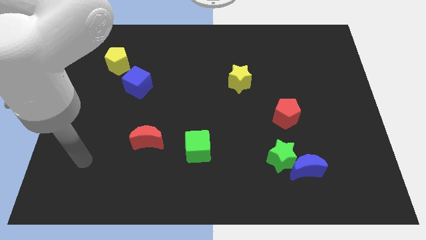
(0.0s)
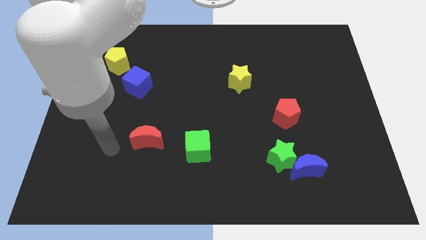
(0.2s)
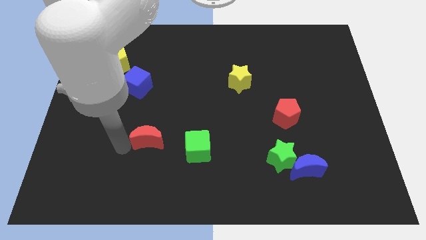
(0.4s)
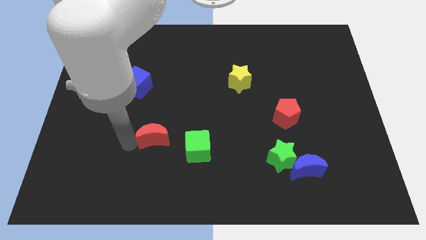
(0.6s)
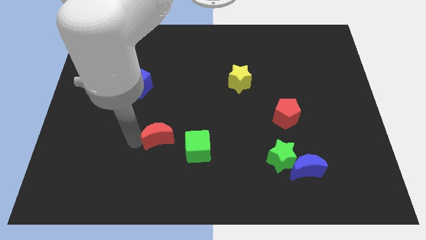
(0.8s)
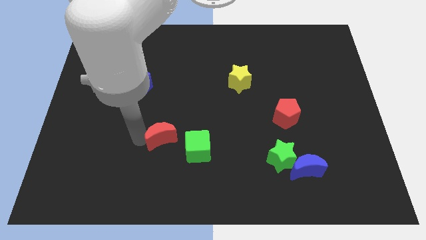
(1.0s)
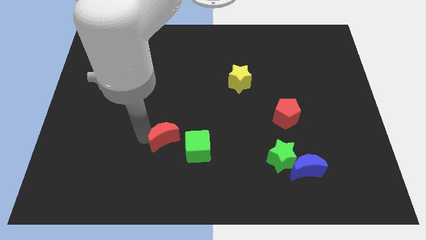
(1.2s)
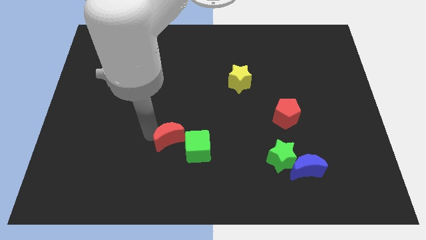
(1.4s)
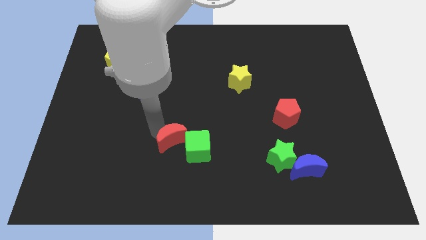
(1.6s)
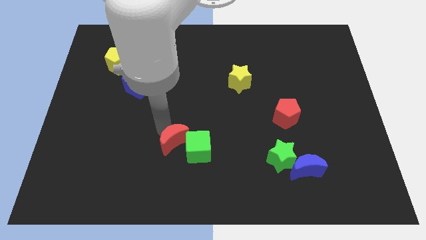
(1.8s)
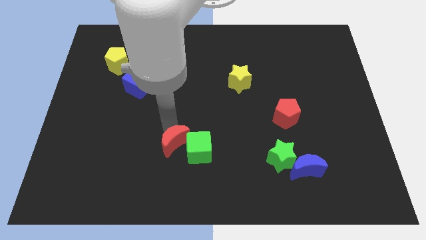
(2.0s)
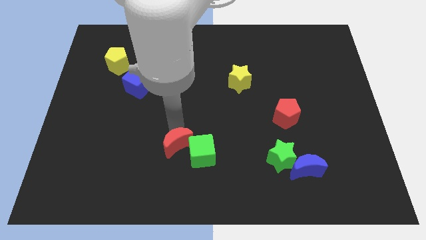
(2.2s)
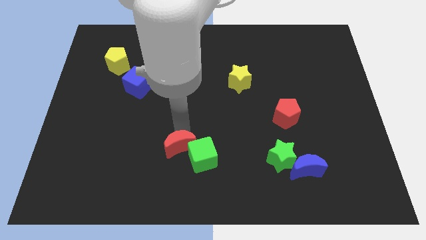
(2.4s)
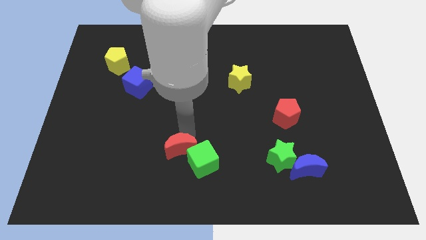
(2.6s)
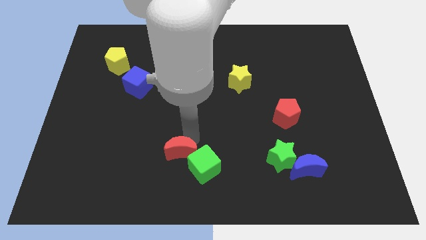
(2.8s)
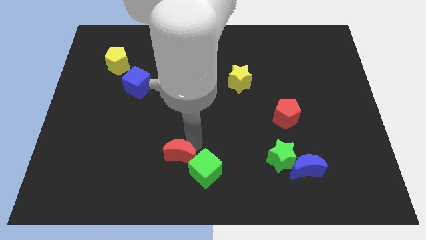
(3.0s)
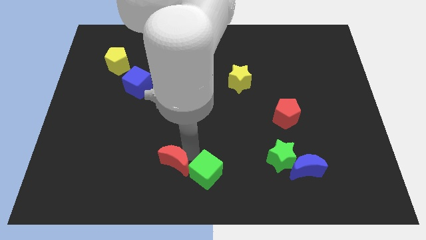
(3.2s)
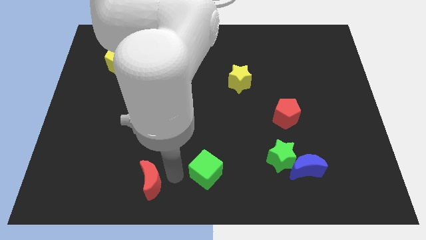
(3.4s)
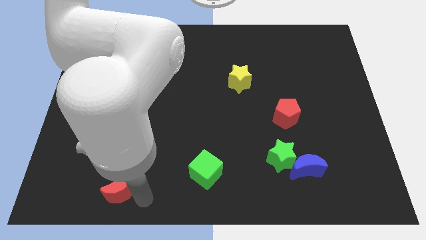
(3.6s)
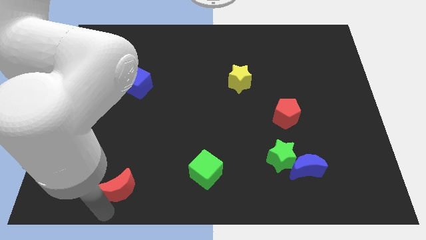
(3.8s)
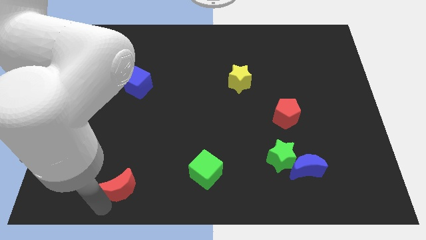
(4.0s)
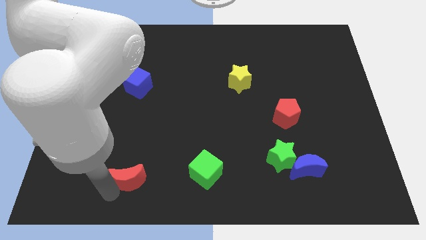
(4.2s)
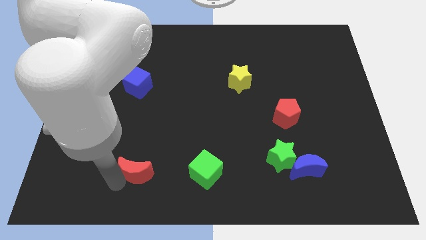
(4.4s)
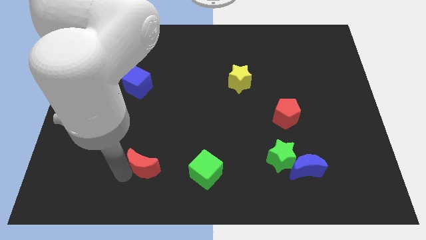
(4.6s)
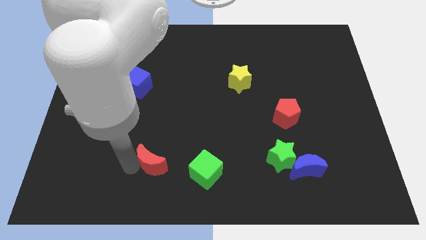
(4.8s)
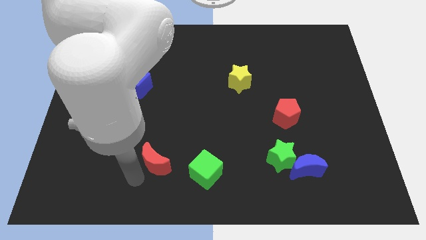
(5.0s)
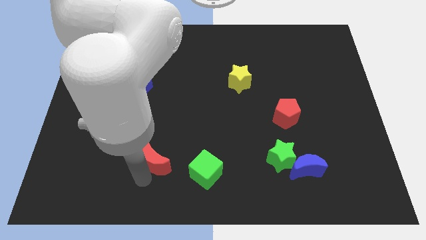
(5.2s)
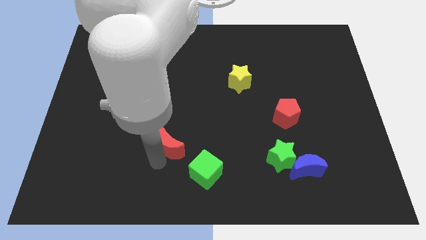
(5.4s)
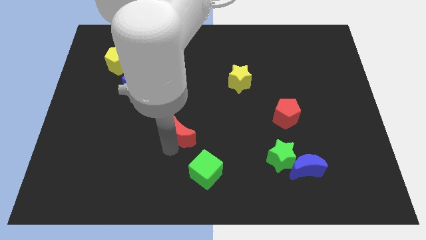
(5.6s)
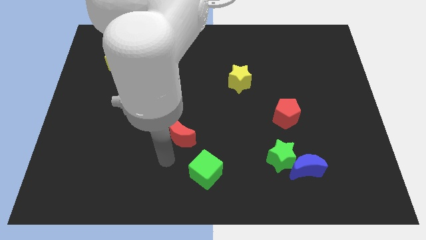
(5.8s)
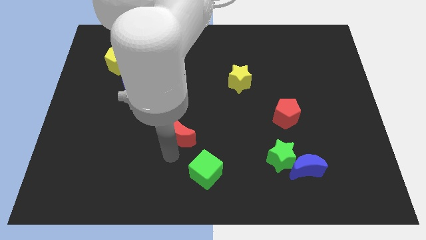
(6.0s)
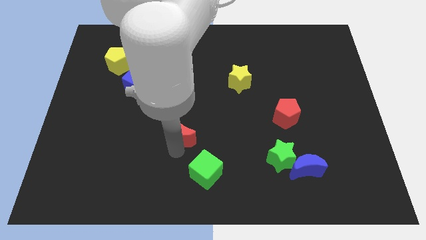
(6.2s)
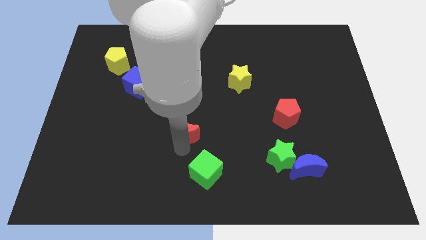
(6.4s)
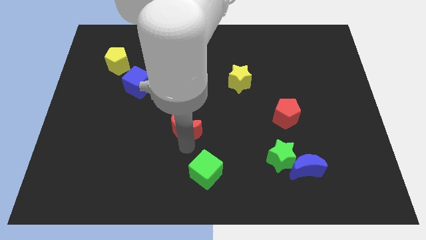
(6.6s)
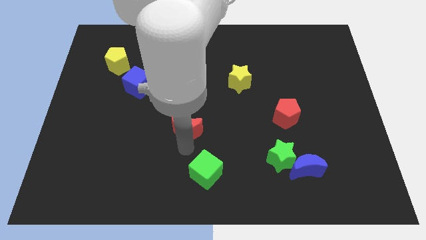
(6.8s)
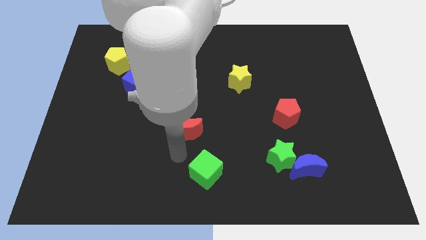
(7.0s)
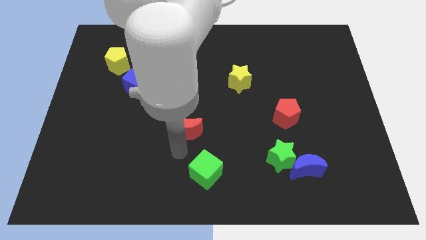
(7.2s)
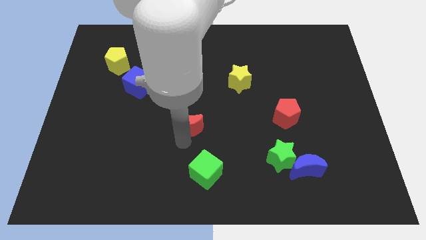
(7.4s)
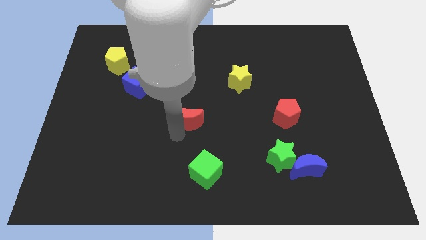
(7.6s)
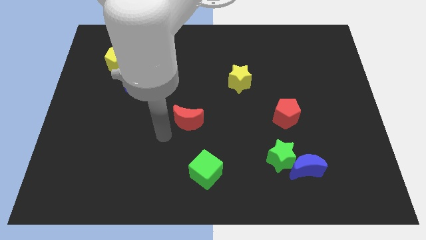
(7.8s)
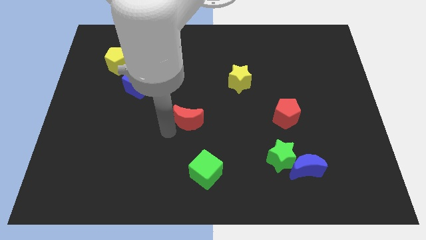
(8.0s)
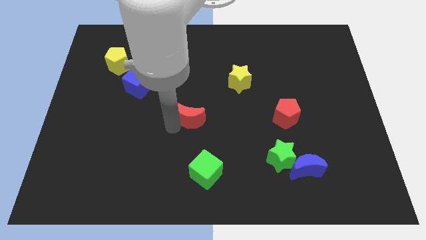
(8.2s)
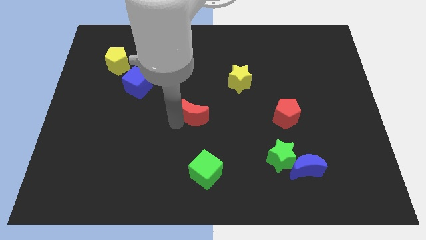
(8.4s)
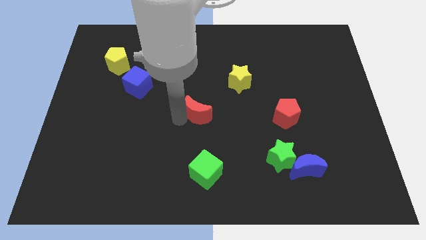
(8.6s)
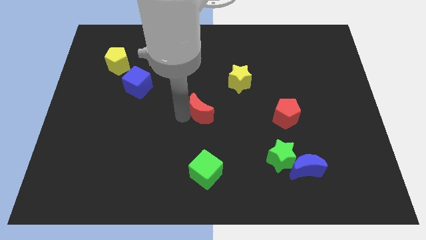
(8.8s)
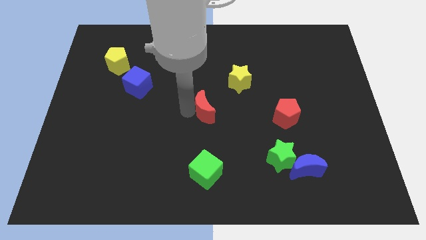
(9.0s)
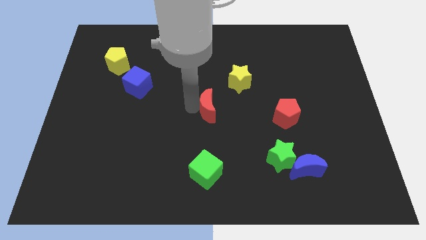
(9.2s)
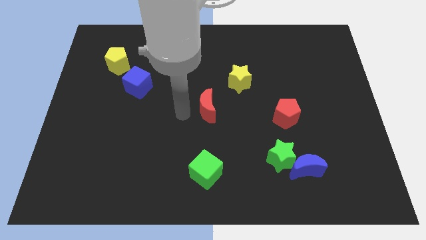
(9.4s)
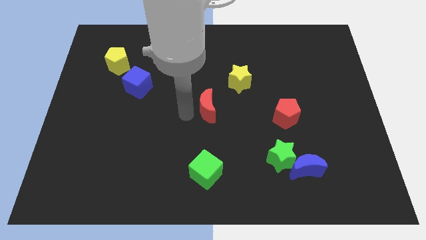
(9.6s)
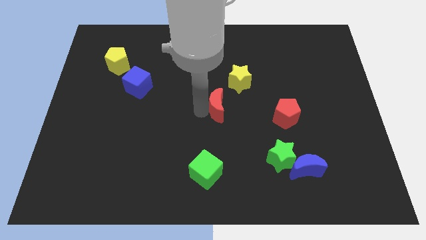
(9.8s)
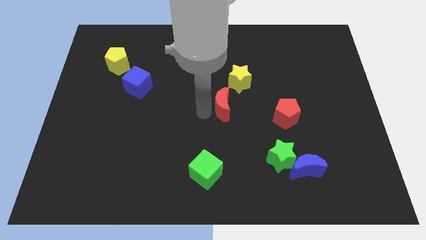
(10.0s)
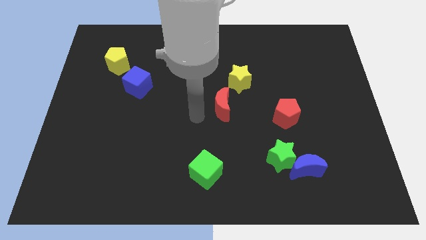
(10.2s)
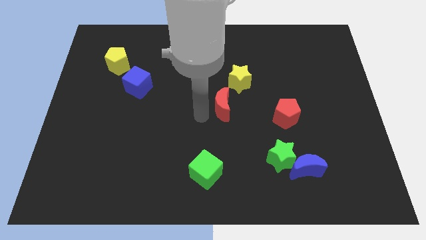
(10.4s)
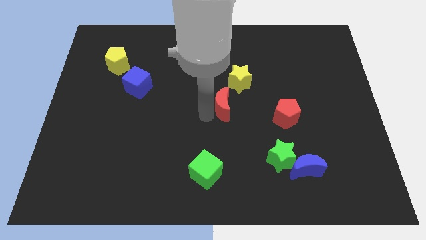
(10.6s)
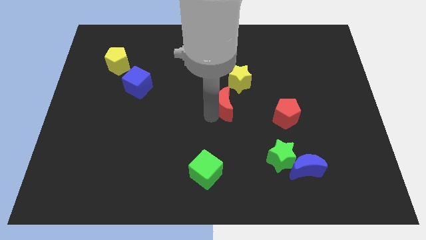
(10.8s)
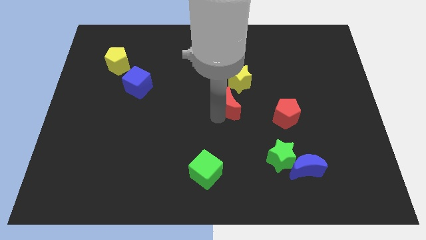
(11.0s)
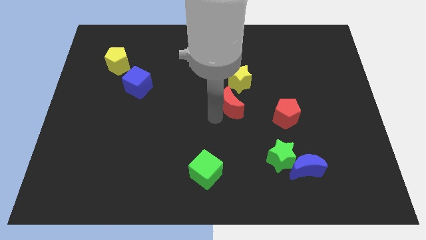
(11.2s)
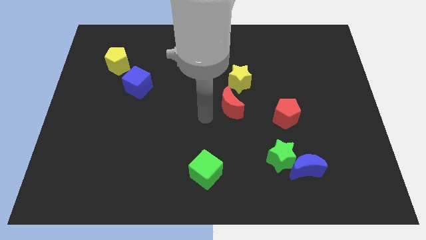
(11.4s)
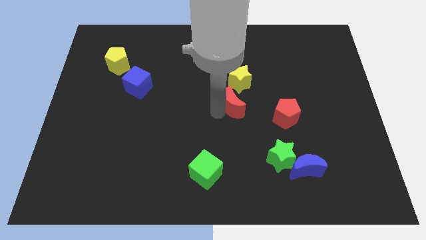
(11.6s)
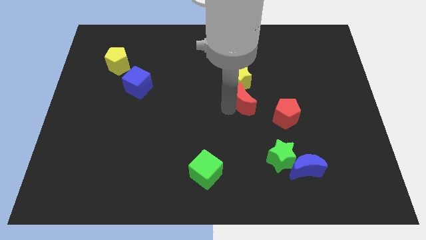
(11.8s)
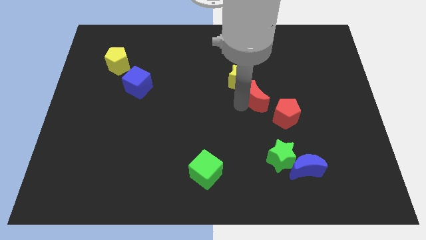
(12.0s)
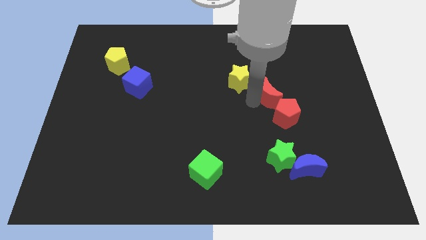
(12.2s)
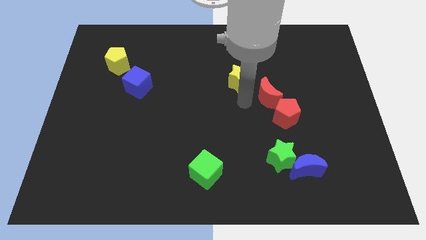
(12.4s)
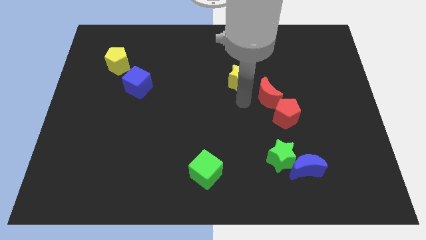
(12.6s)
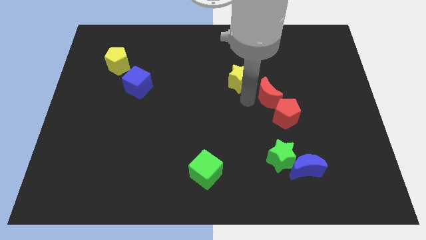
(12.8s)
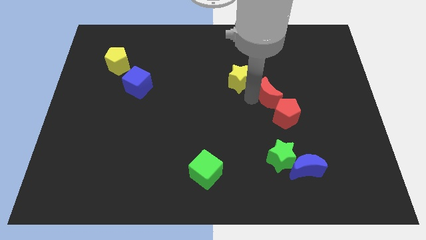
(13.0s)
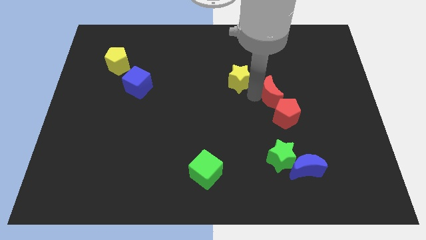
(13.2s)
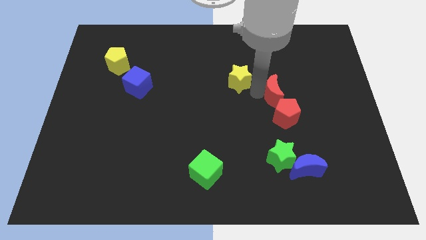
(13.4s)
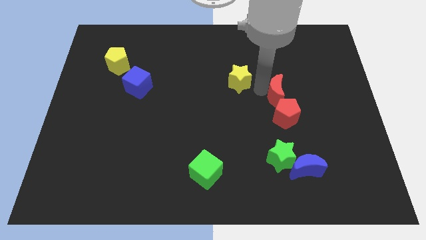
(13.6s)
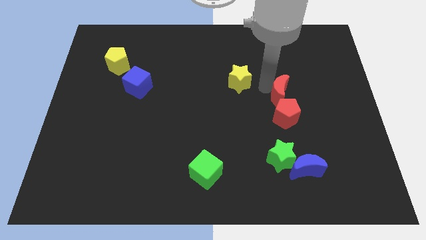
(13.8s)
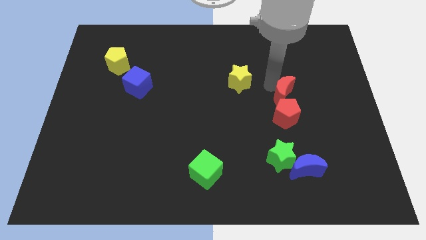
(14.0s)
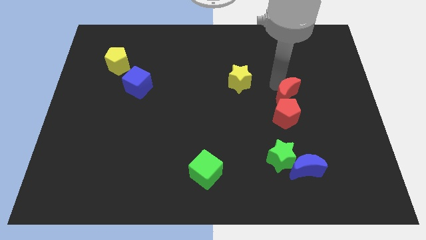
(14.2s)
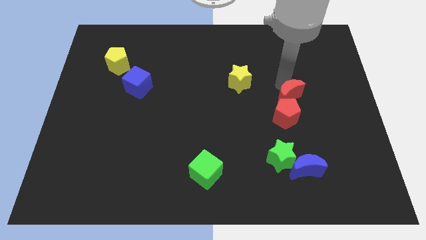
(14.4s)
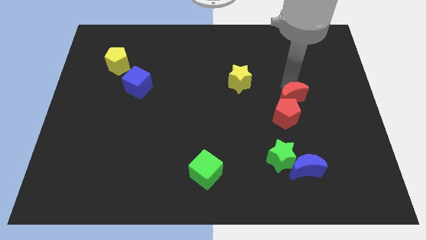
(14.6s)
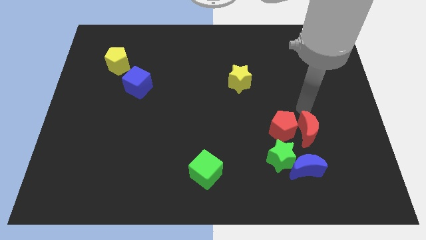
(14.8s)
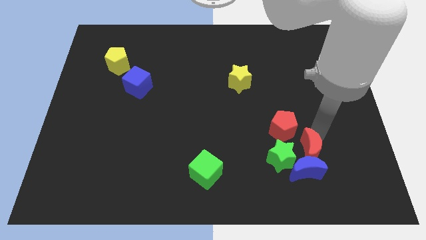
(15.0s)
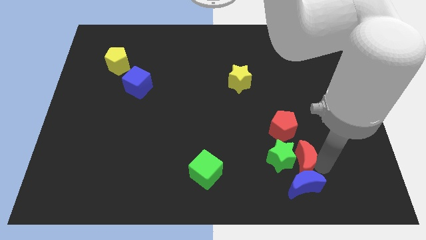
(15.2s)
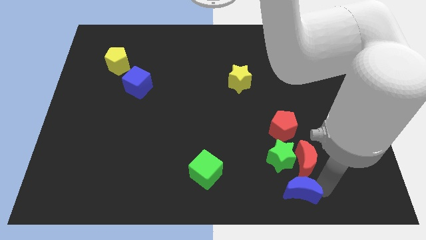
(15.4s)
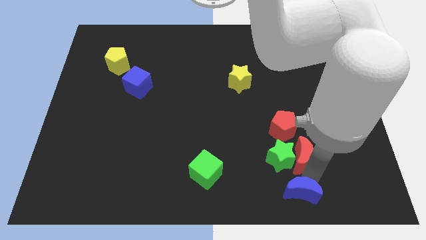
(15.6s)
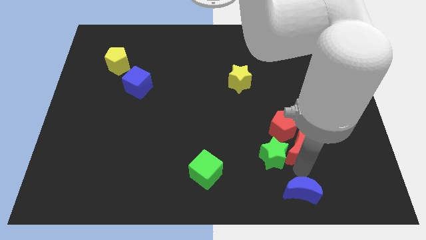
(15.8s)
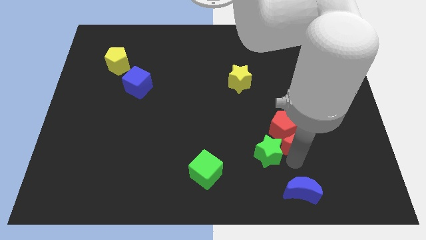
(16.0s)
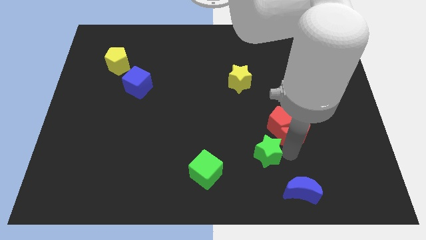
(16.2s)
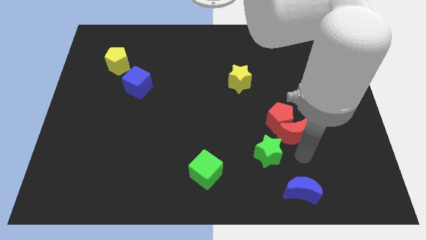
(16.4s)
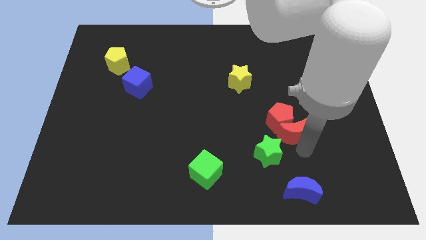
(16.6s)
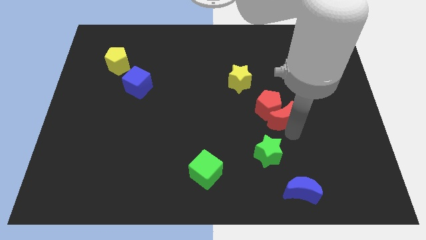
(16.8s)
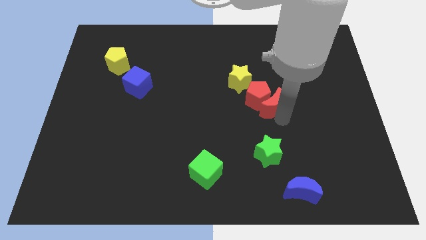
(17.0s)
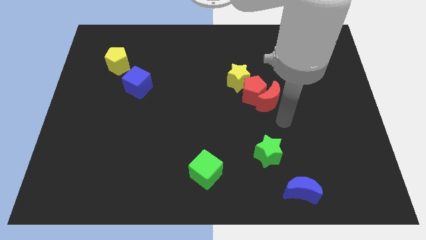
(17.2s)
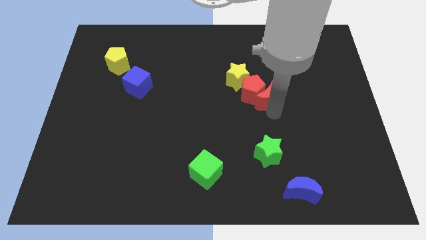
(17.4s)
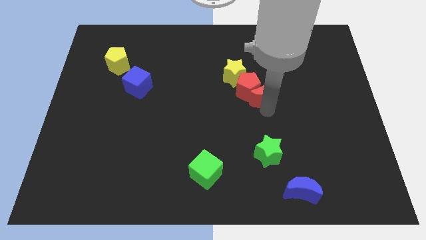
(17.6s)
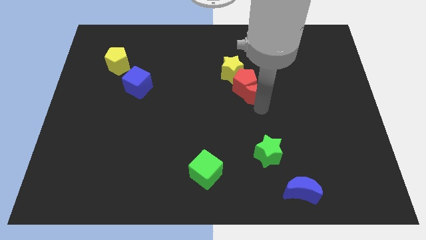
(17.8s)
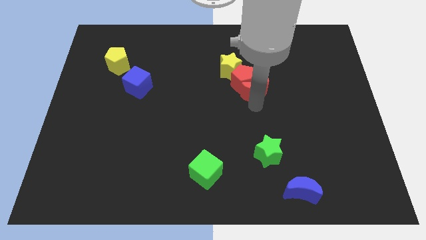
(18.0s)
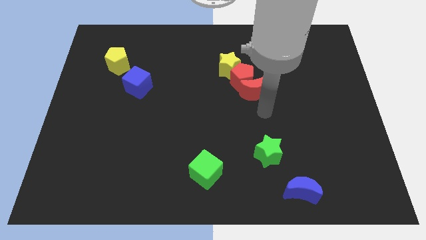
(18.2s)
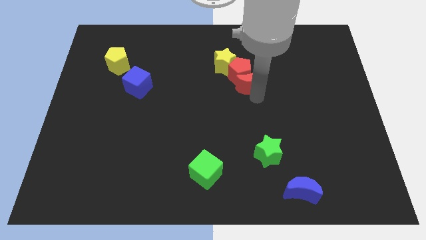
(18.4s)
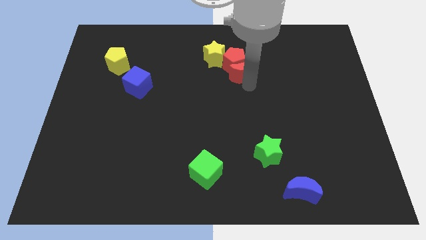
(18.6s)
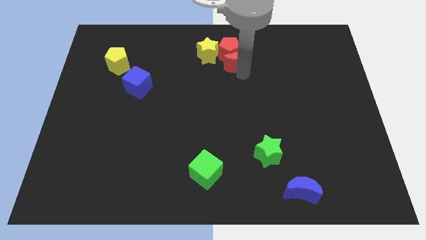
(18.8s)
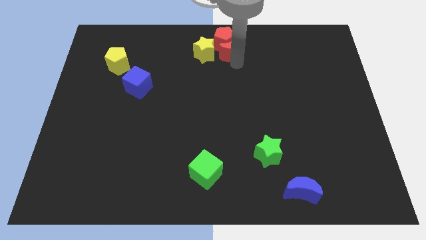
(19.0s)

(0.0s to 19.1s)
put the red moon to the towards your base
